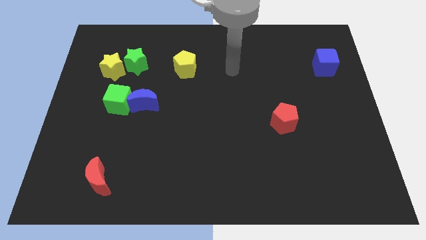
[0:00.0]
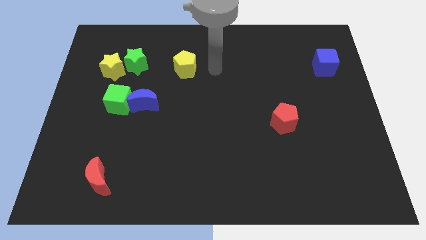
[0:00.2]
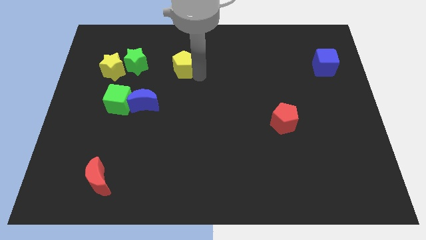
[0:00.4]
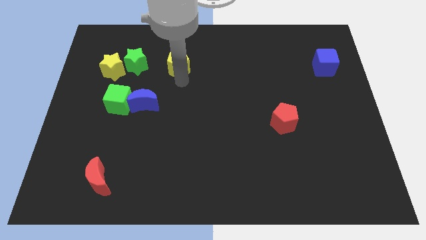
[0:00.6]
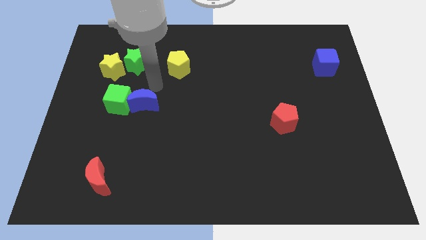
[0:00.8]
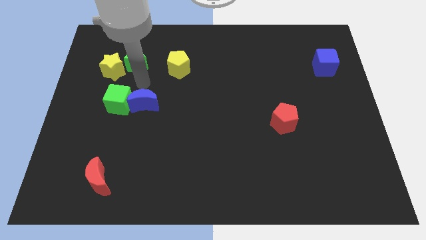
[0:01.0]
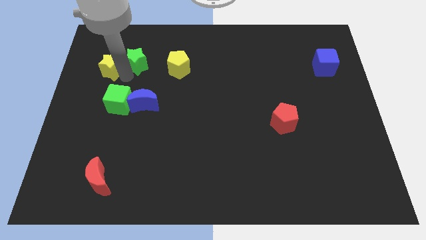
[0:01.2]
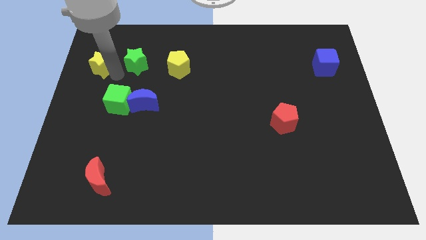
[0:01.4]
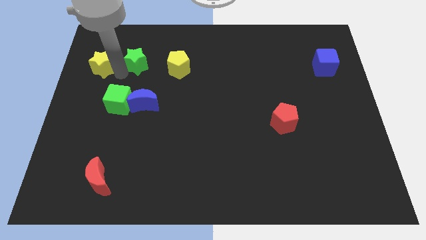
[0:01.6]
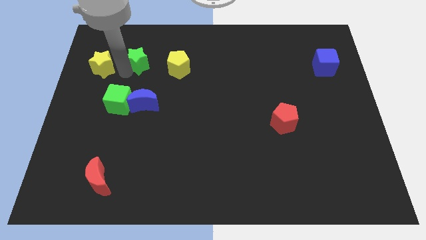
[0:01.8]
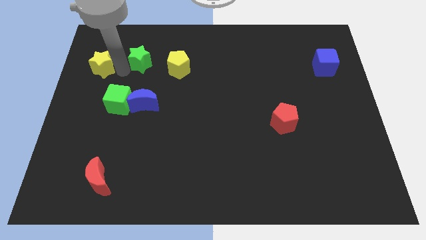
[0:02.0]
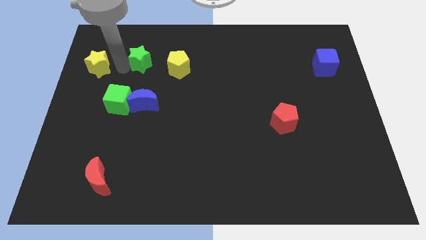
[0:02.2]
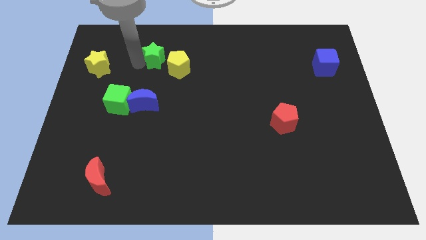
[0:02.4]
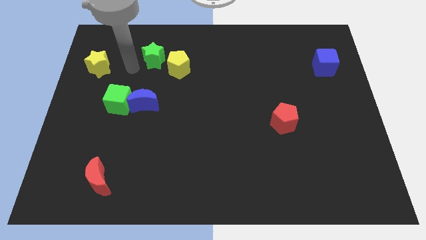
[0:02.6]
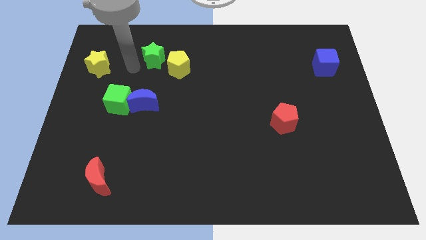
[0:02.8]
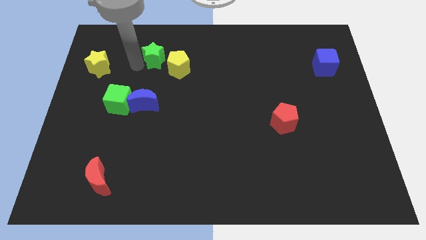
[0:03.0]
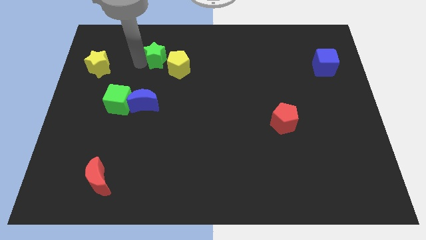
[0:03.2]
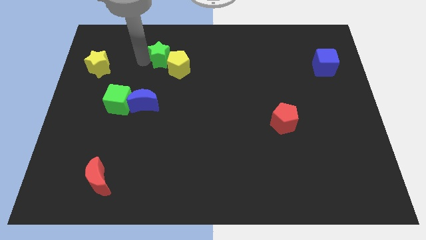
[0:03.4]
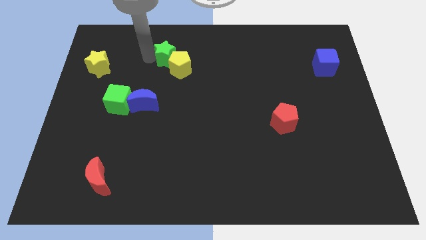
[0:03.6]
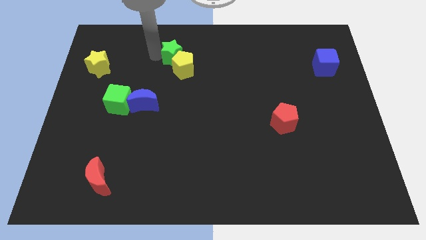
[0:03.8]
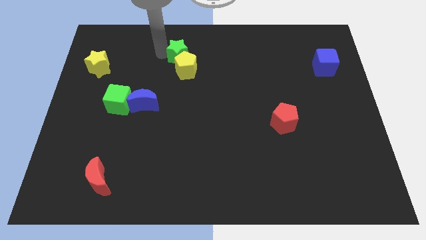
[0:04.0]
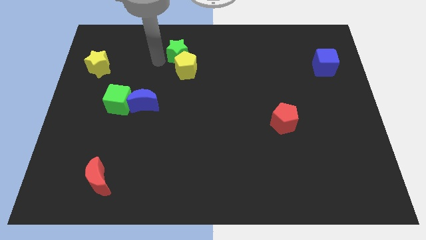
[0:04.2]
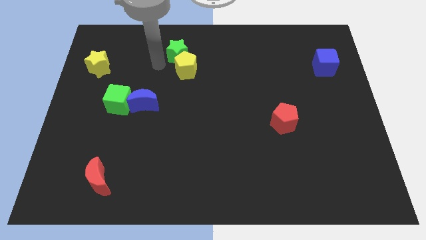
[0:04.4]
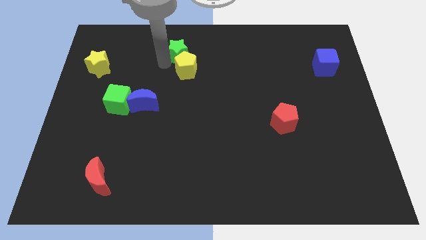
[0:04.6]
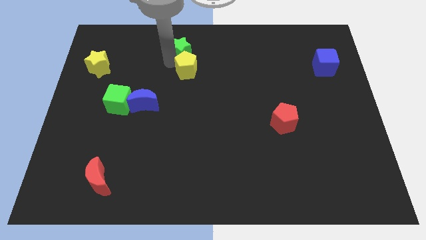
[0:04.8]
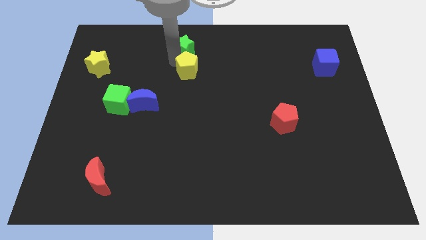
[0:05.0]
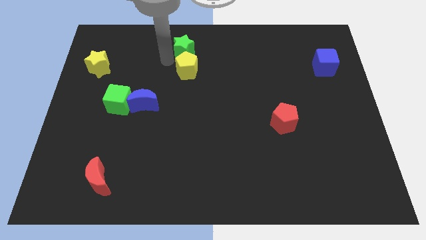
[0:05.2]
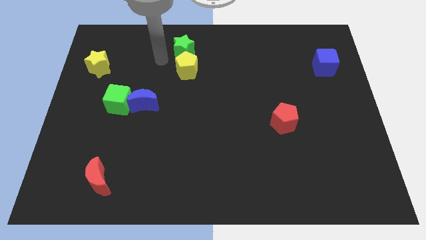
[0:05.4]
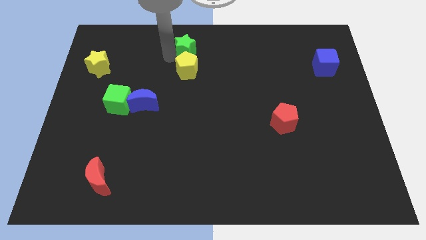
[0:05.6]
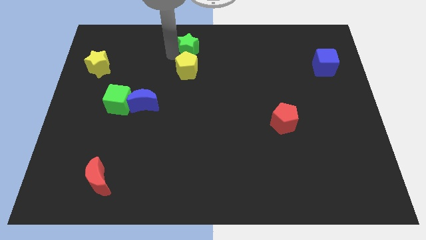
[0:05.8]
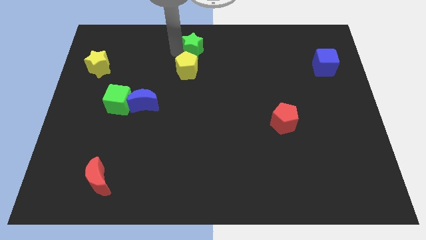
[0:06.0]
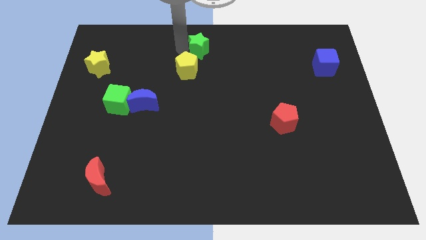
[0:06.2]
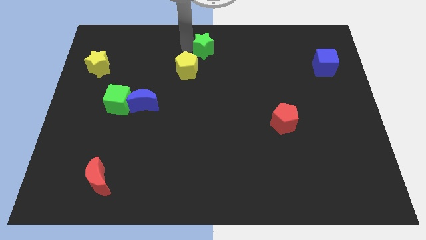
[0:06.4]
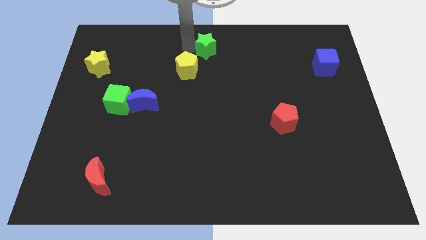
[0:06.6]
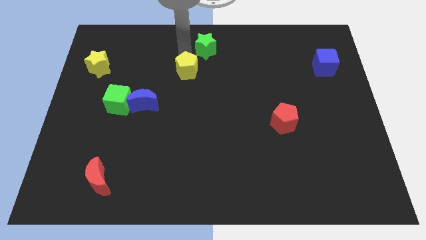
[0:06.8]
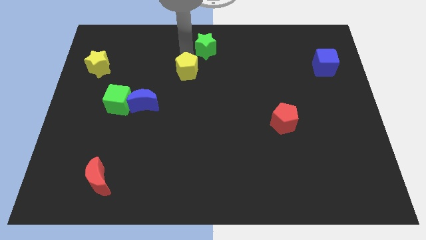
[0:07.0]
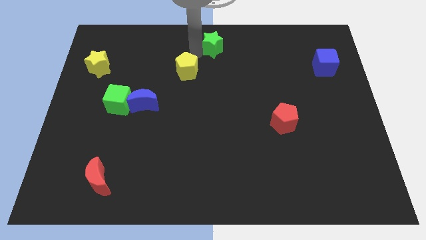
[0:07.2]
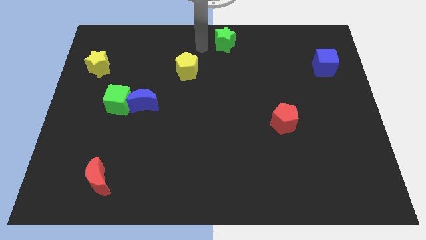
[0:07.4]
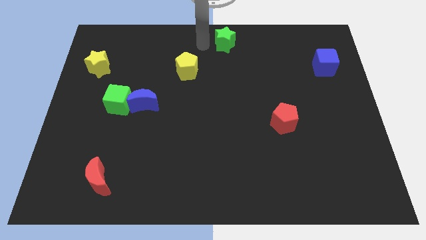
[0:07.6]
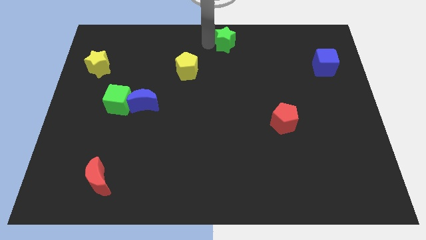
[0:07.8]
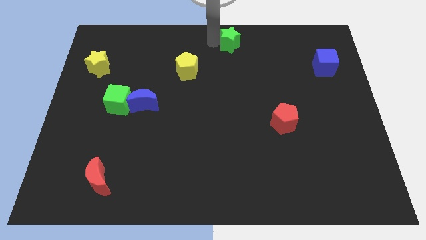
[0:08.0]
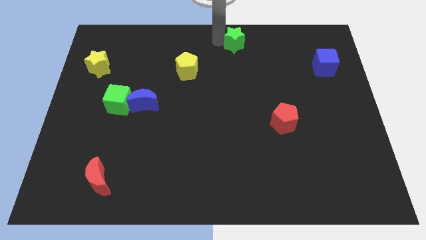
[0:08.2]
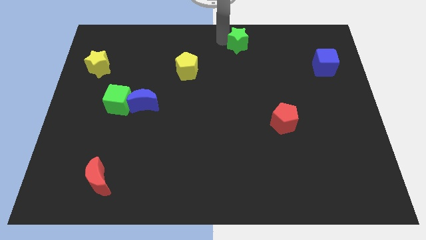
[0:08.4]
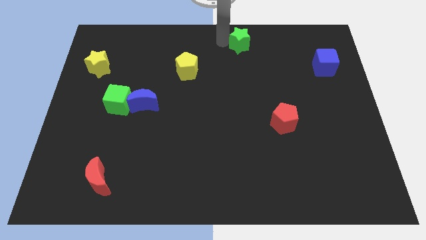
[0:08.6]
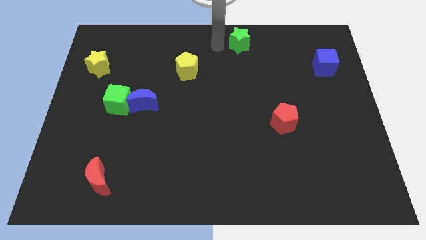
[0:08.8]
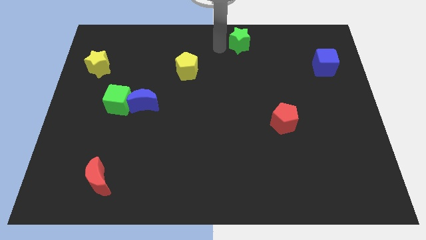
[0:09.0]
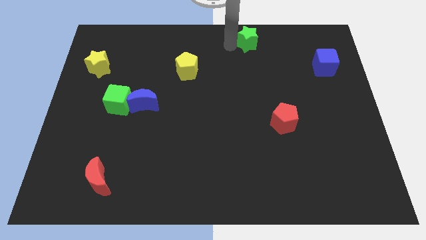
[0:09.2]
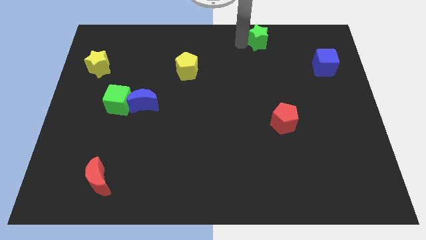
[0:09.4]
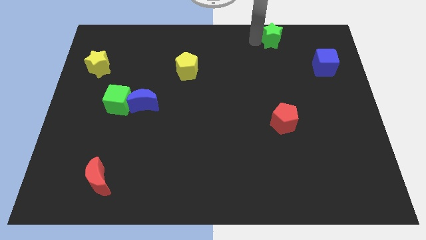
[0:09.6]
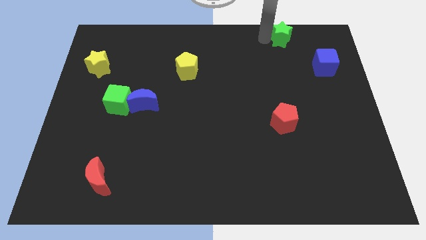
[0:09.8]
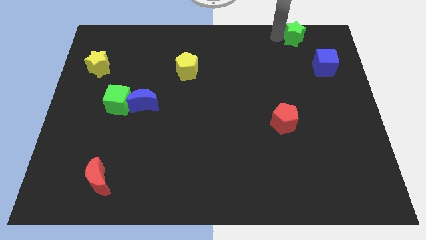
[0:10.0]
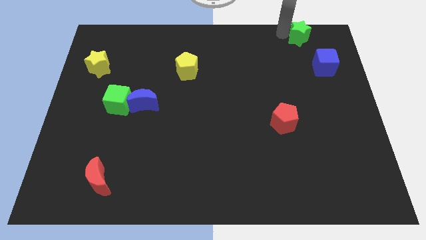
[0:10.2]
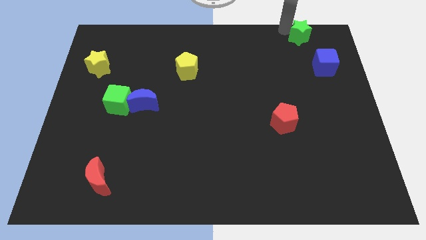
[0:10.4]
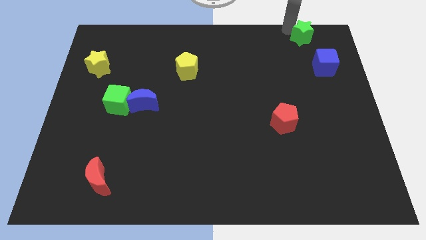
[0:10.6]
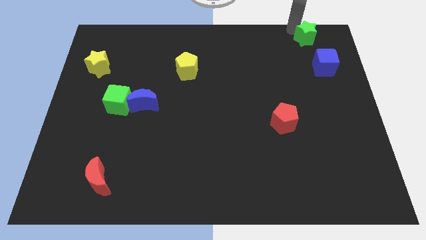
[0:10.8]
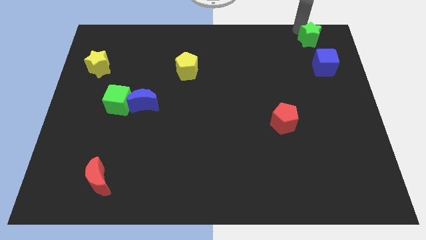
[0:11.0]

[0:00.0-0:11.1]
put the green star to the top right of the board

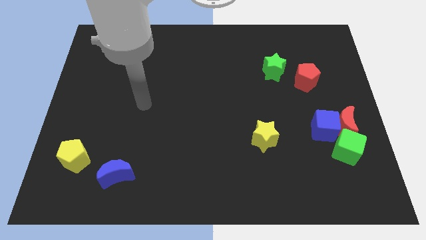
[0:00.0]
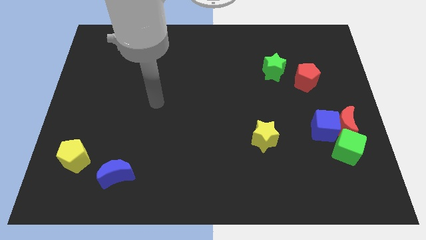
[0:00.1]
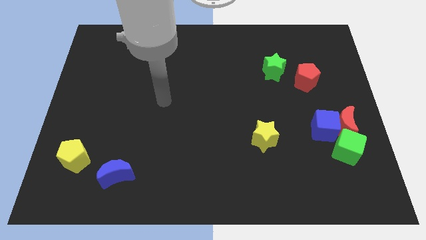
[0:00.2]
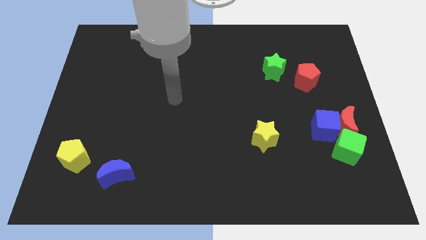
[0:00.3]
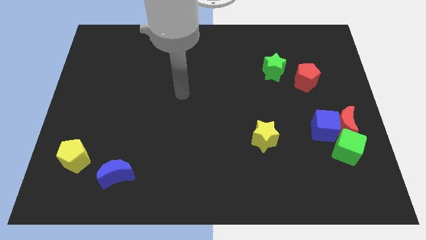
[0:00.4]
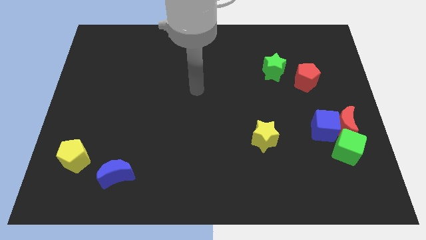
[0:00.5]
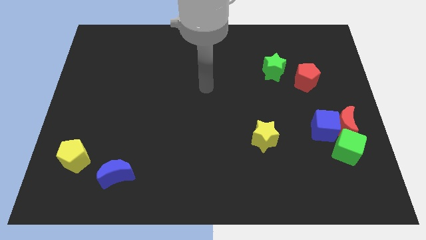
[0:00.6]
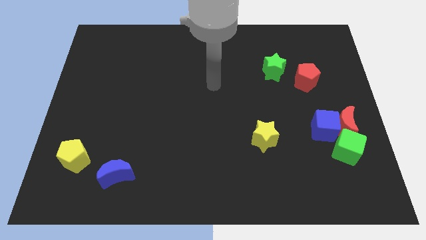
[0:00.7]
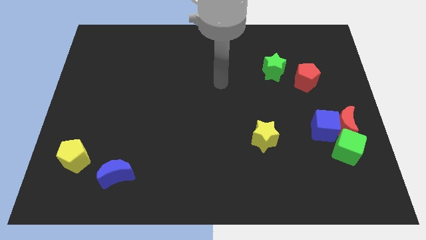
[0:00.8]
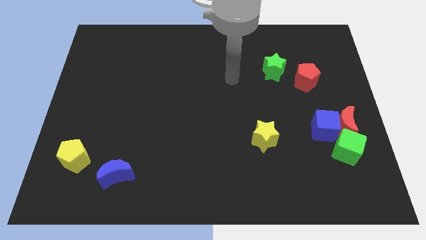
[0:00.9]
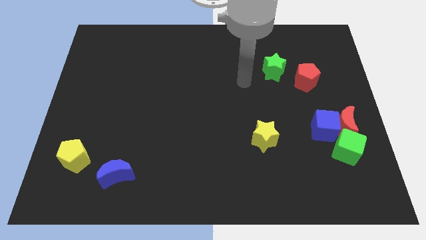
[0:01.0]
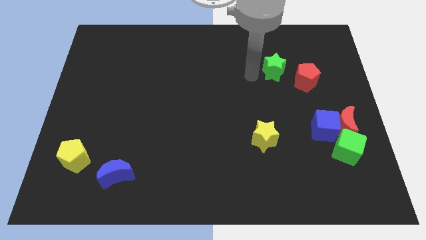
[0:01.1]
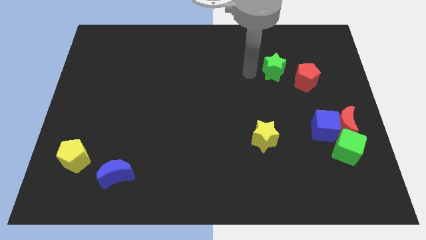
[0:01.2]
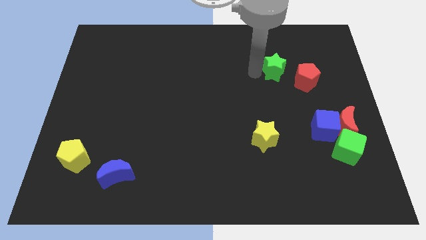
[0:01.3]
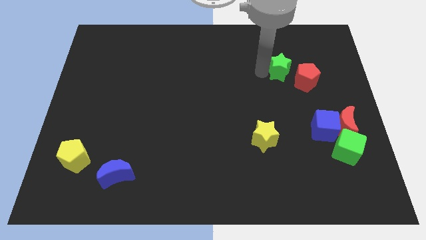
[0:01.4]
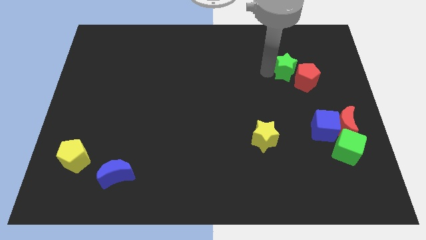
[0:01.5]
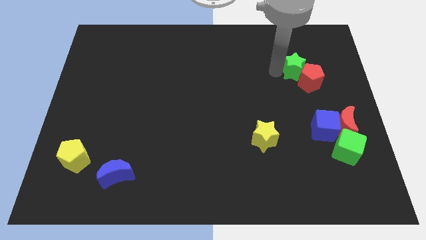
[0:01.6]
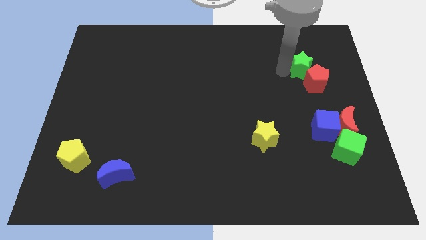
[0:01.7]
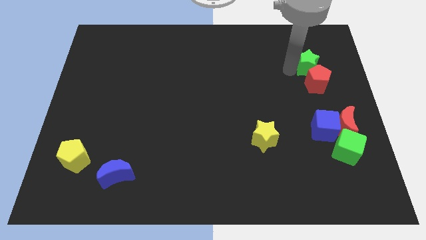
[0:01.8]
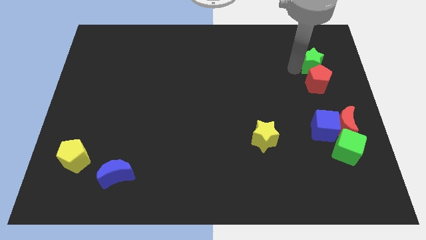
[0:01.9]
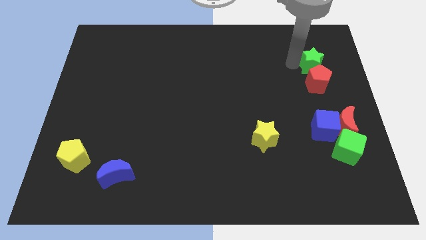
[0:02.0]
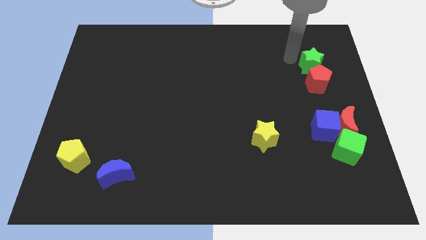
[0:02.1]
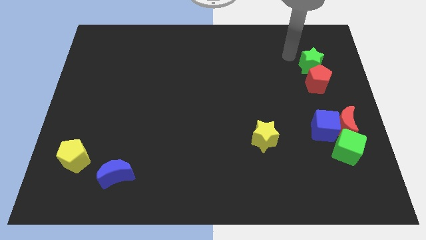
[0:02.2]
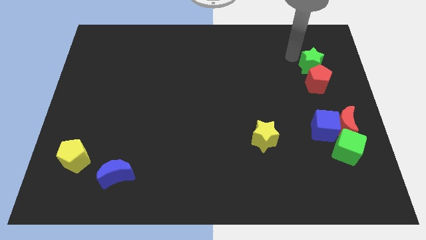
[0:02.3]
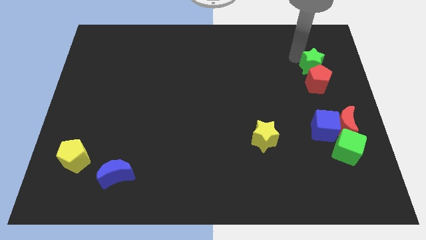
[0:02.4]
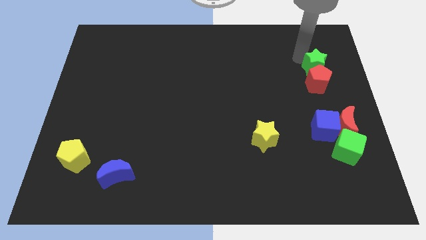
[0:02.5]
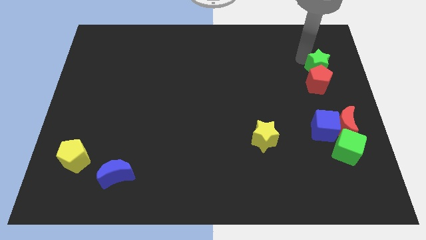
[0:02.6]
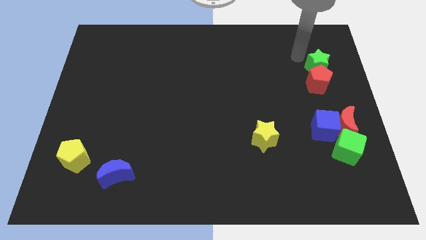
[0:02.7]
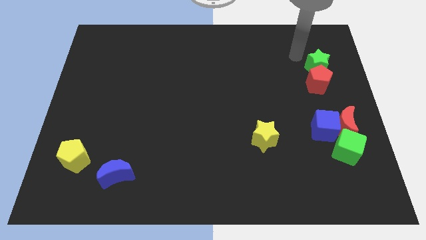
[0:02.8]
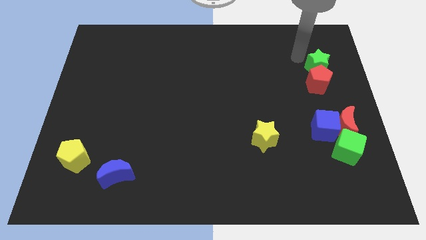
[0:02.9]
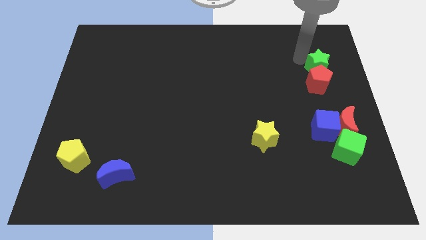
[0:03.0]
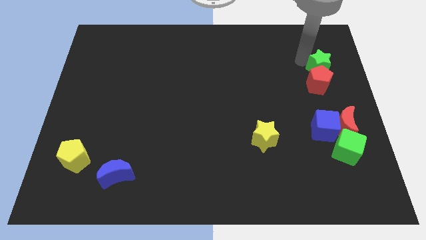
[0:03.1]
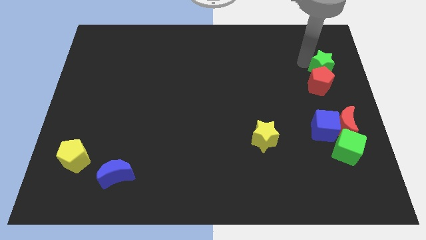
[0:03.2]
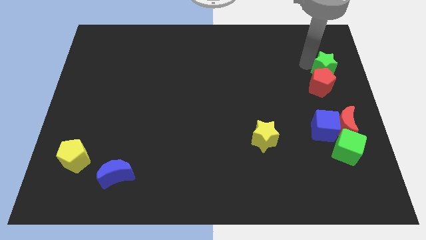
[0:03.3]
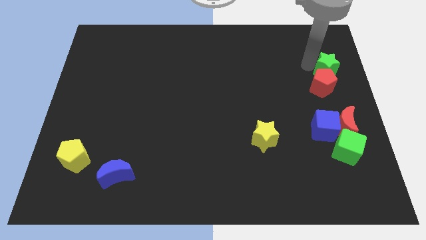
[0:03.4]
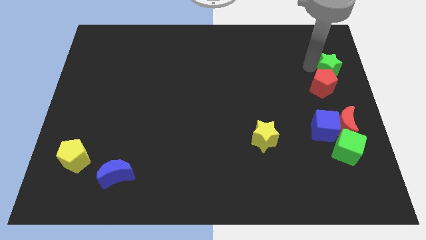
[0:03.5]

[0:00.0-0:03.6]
slide the green star to the right side
